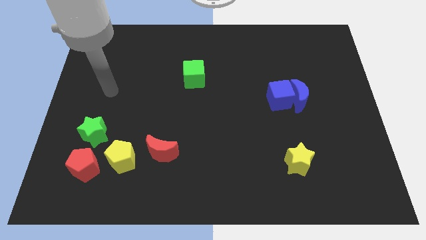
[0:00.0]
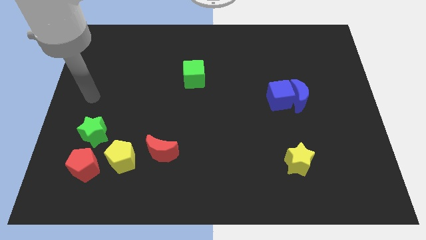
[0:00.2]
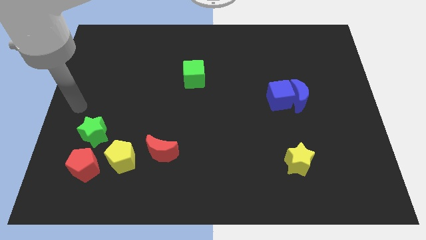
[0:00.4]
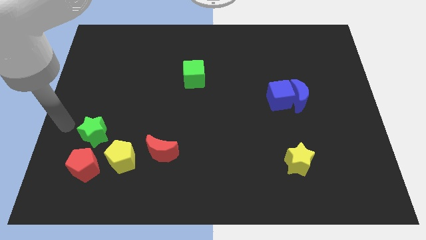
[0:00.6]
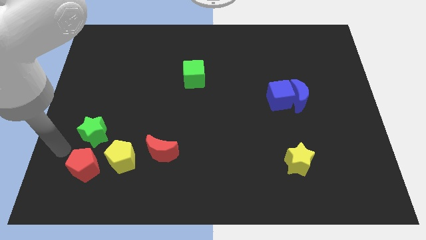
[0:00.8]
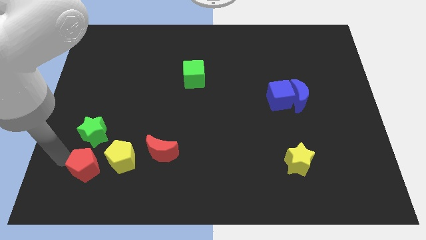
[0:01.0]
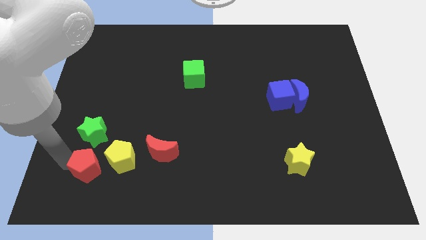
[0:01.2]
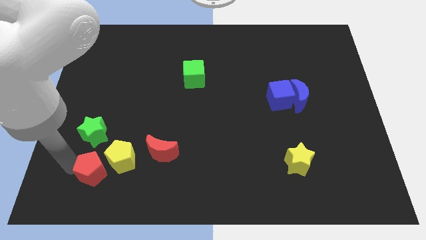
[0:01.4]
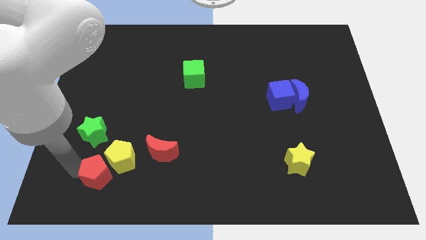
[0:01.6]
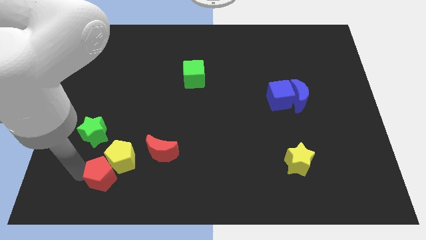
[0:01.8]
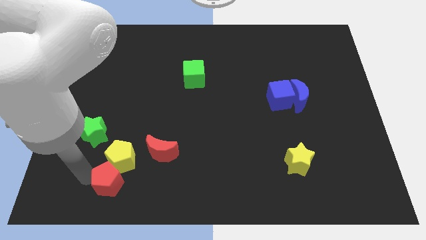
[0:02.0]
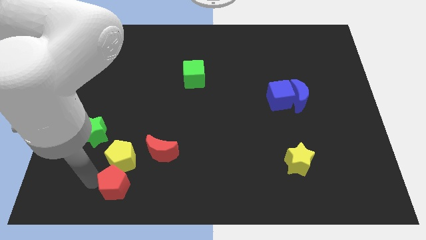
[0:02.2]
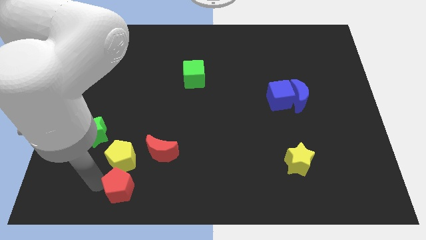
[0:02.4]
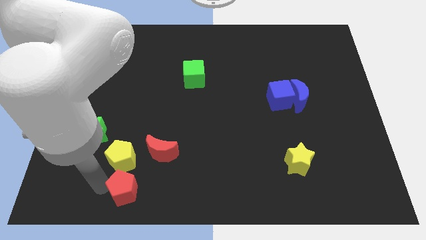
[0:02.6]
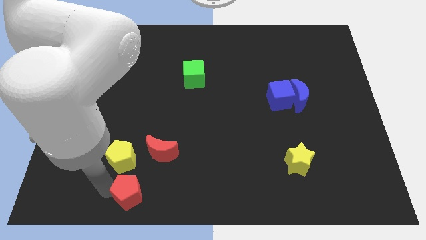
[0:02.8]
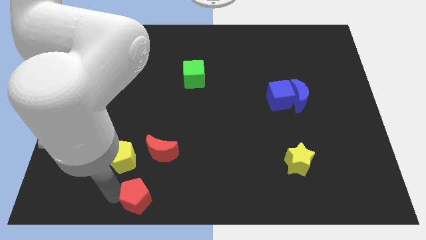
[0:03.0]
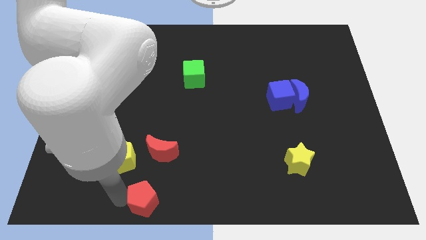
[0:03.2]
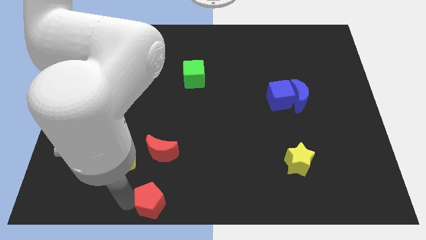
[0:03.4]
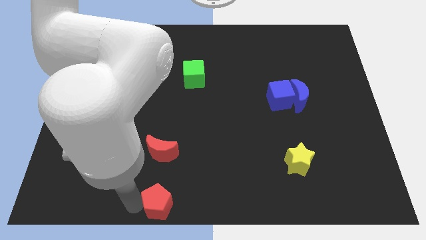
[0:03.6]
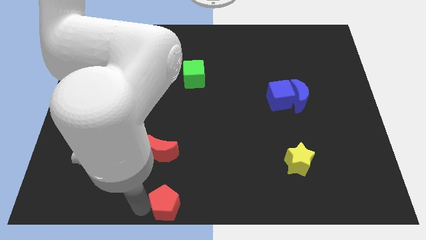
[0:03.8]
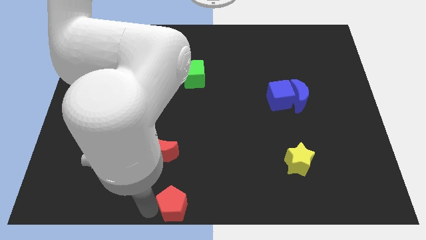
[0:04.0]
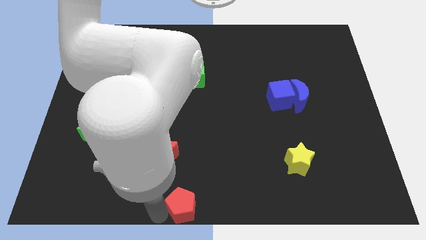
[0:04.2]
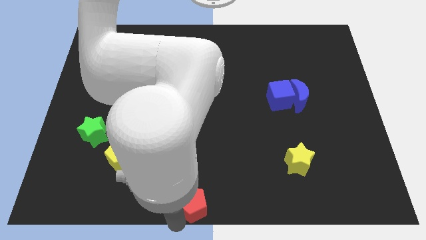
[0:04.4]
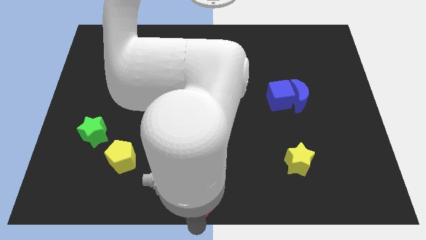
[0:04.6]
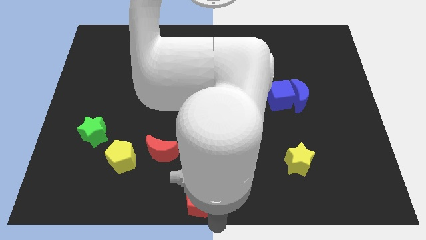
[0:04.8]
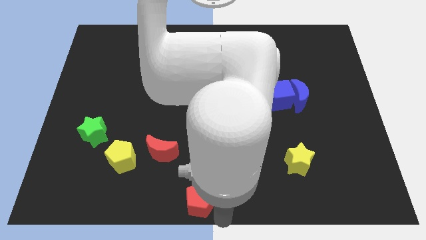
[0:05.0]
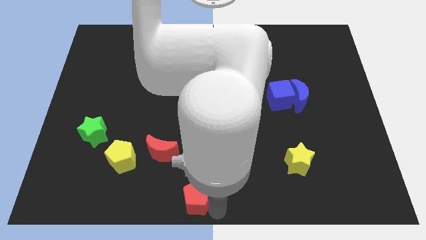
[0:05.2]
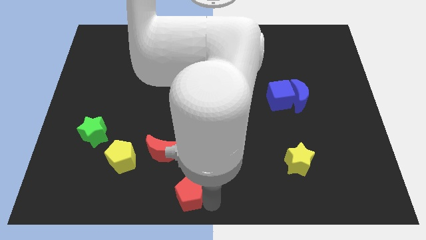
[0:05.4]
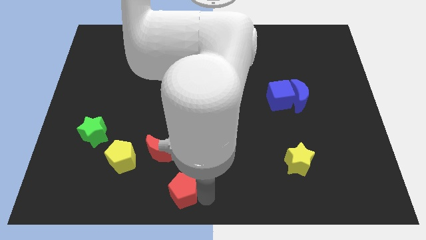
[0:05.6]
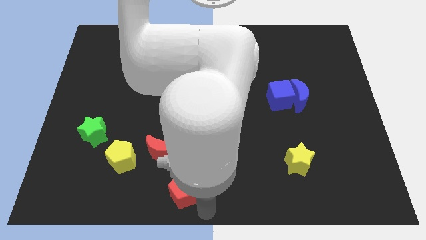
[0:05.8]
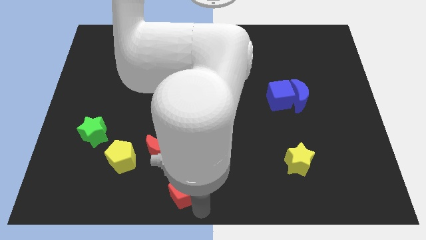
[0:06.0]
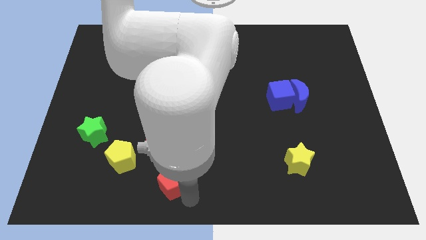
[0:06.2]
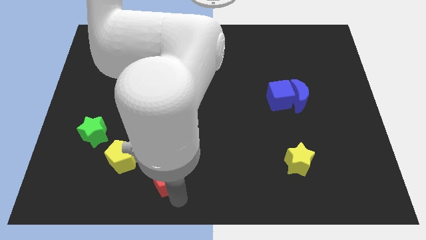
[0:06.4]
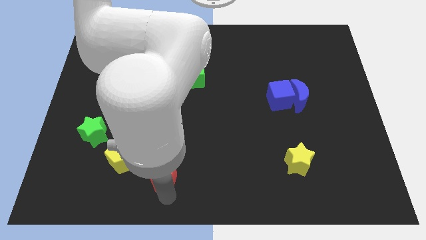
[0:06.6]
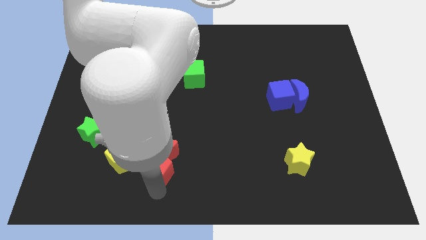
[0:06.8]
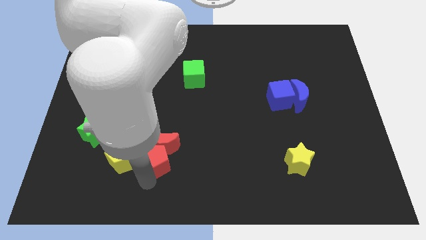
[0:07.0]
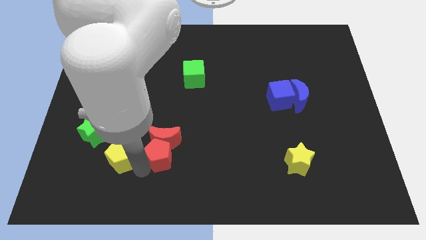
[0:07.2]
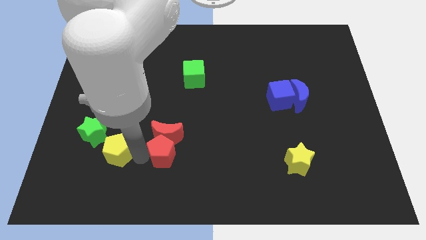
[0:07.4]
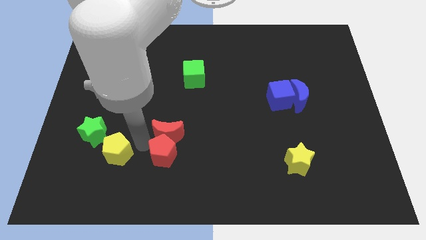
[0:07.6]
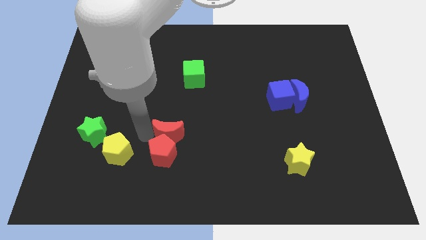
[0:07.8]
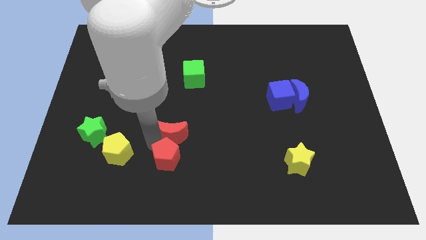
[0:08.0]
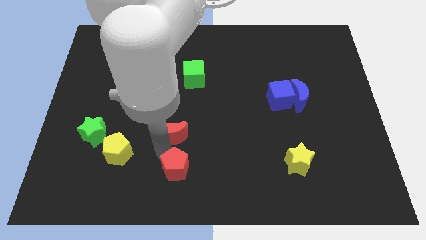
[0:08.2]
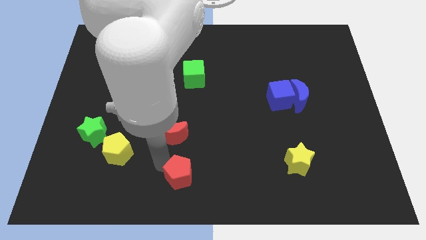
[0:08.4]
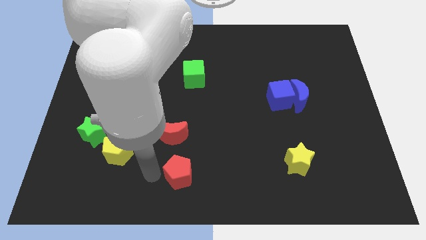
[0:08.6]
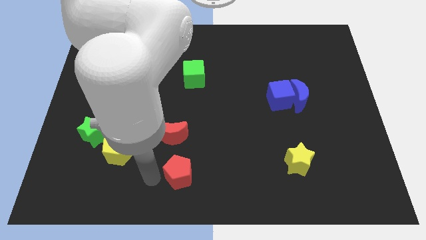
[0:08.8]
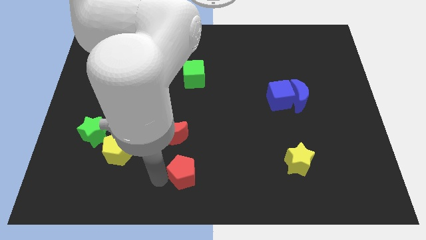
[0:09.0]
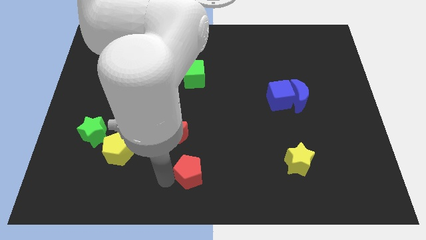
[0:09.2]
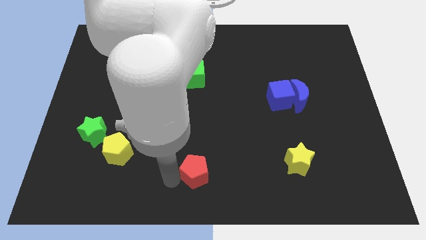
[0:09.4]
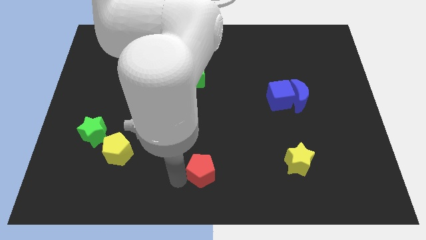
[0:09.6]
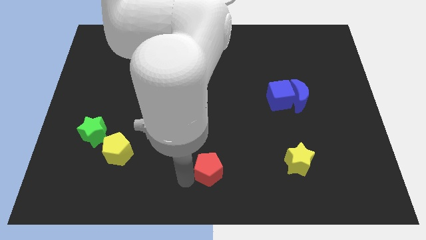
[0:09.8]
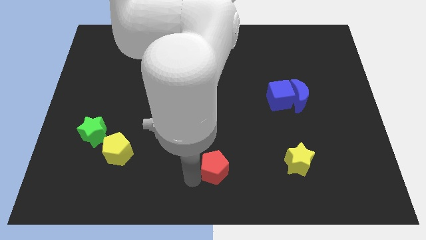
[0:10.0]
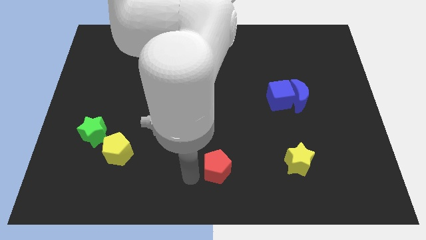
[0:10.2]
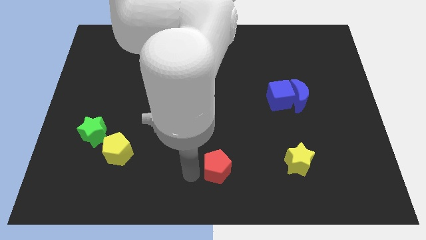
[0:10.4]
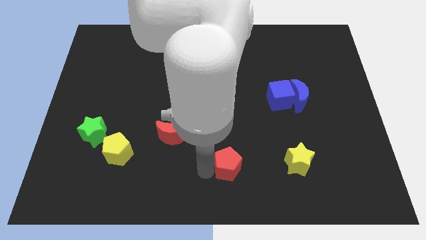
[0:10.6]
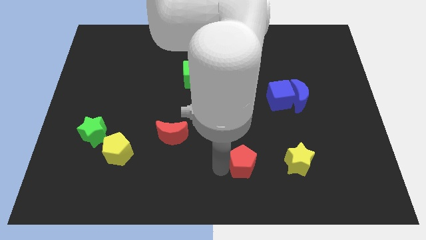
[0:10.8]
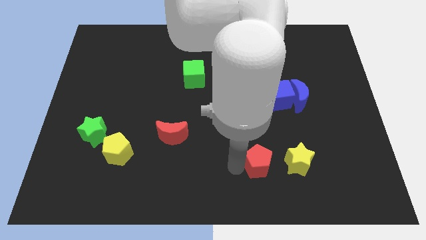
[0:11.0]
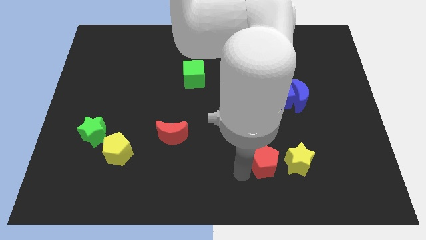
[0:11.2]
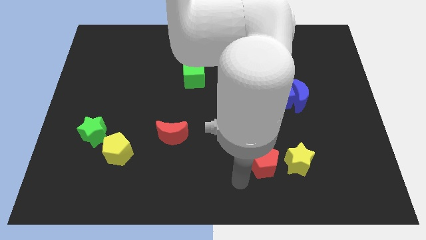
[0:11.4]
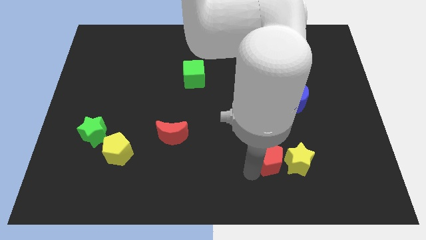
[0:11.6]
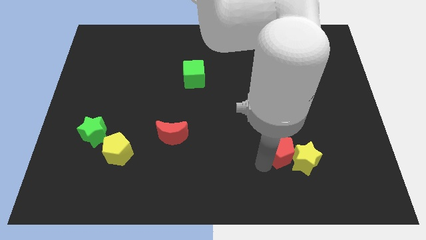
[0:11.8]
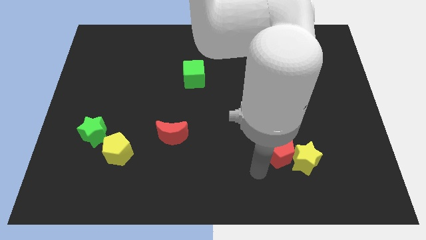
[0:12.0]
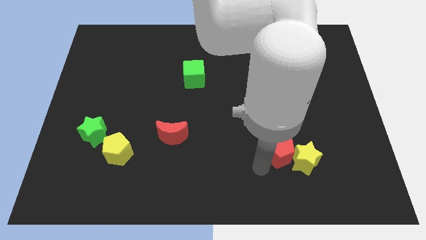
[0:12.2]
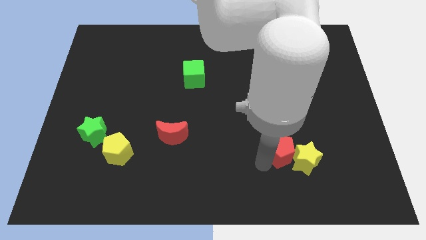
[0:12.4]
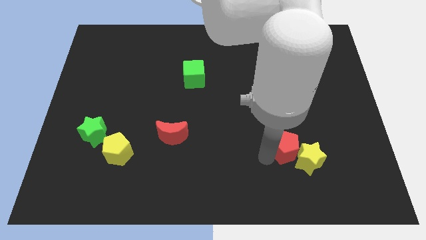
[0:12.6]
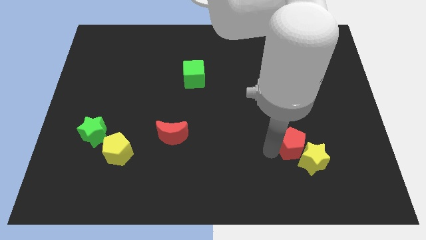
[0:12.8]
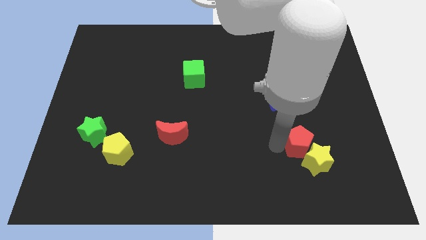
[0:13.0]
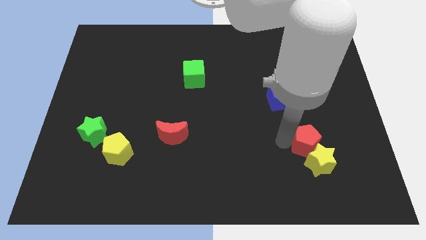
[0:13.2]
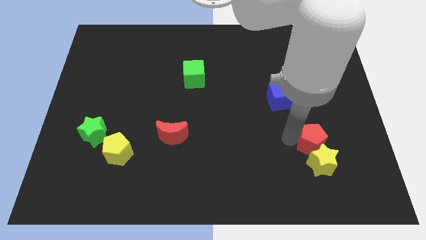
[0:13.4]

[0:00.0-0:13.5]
move the red pentagon diagonally up and to the right of the yellow star

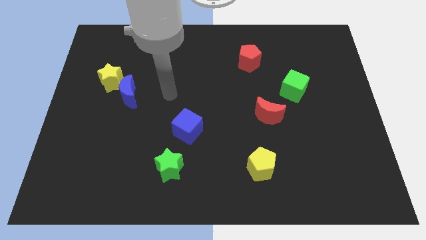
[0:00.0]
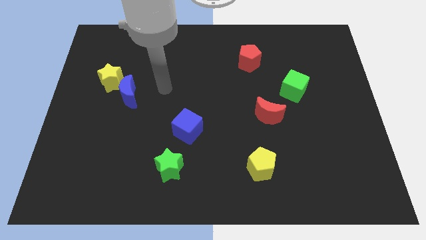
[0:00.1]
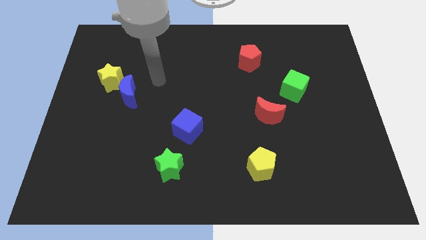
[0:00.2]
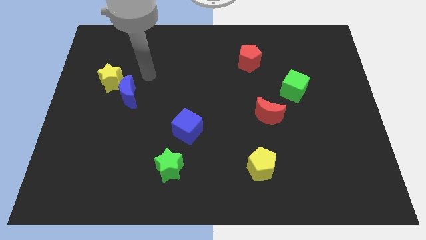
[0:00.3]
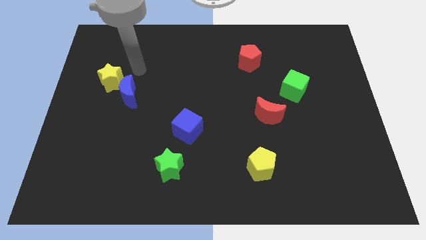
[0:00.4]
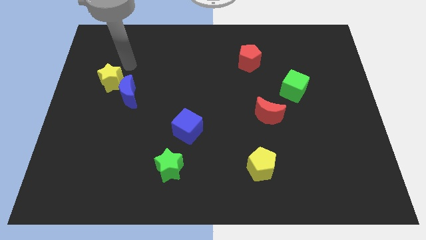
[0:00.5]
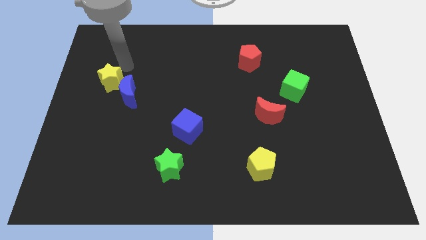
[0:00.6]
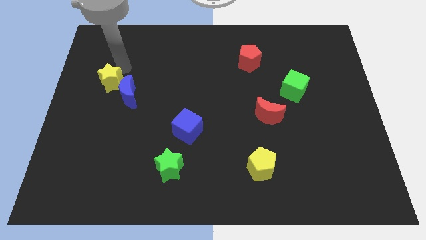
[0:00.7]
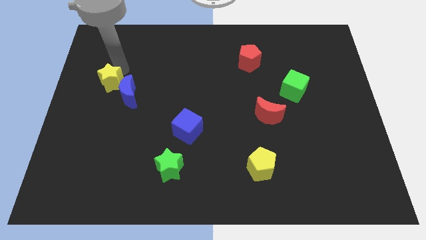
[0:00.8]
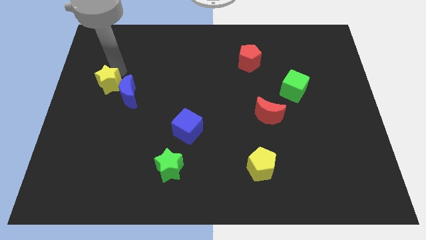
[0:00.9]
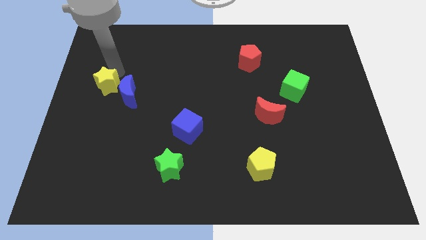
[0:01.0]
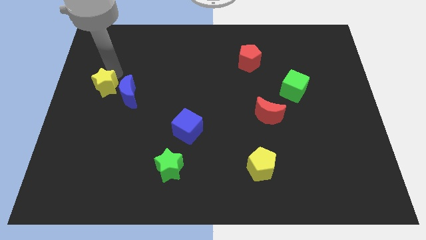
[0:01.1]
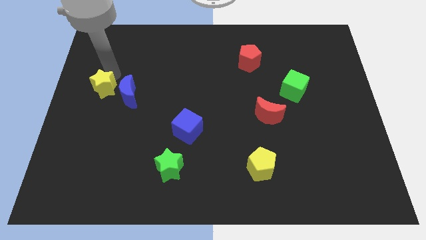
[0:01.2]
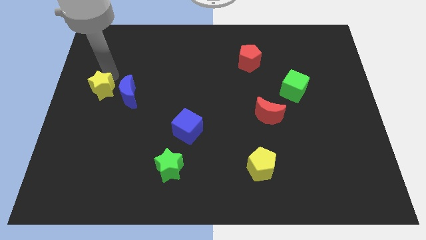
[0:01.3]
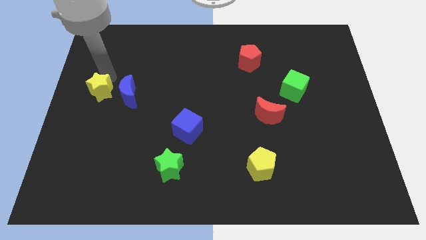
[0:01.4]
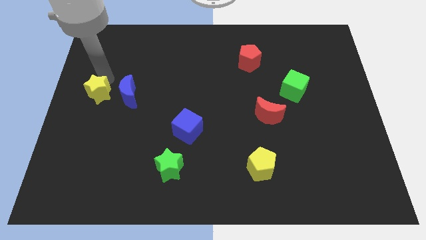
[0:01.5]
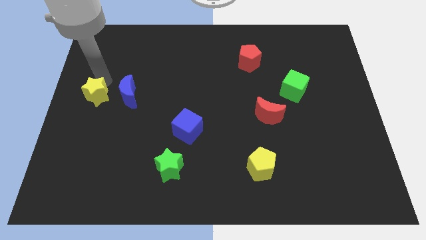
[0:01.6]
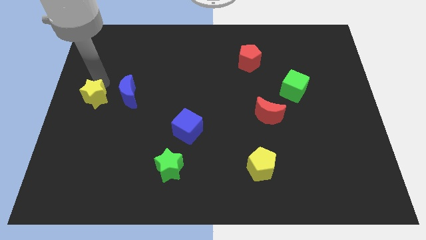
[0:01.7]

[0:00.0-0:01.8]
slide the yellow star diagonally down and to the left of the blue moon

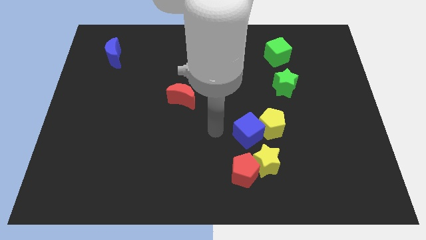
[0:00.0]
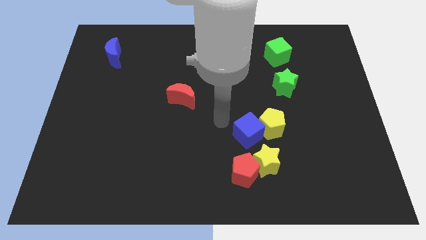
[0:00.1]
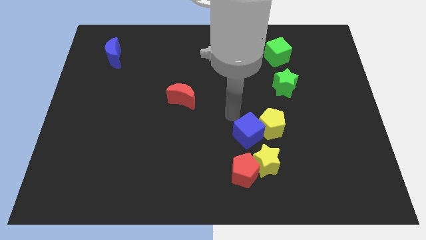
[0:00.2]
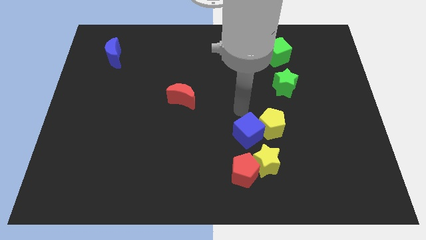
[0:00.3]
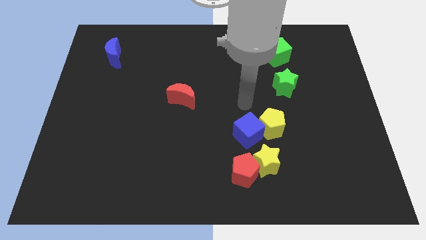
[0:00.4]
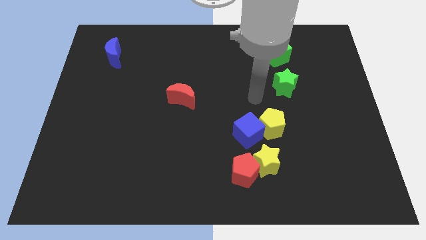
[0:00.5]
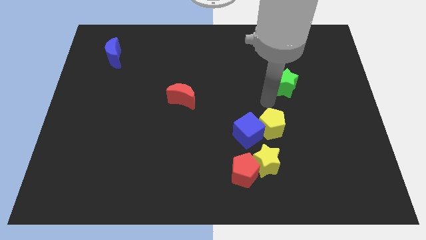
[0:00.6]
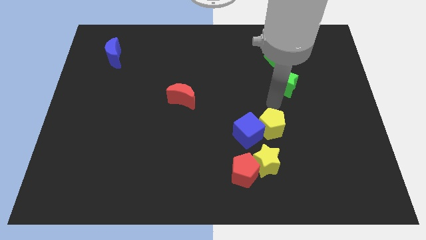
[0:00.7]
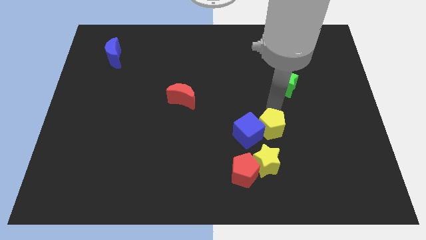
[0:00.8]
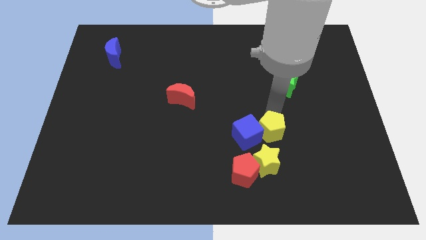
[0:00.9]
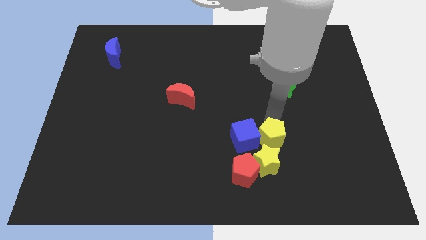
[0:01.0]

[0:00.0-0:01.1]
put the yellow pentagon diagonally up and to the right of the red pentagon
